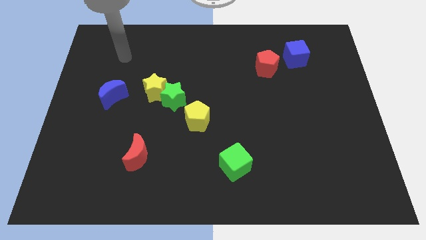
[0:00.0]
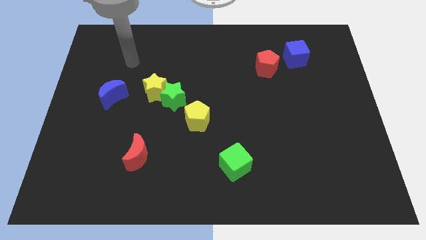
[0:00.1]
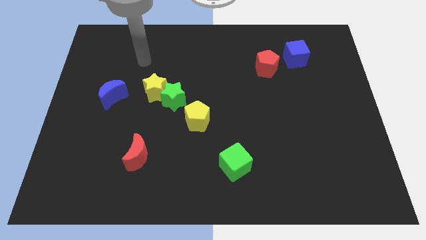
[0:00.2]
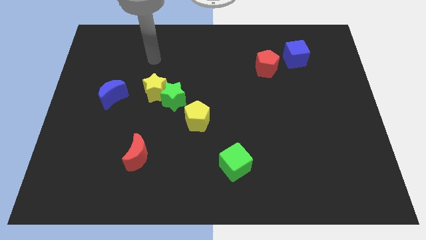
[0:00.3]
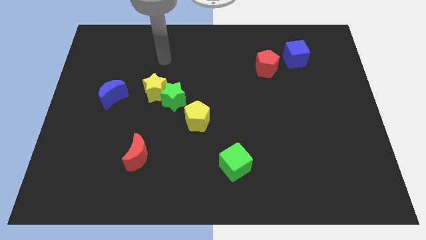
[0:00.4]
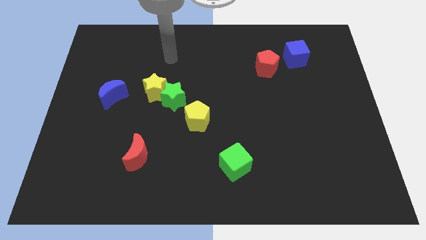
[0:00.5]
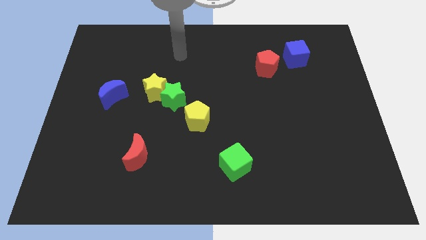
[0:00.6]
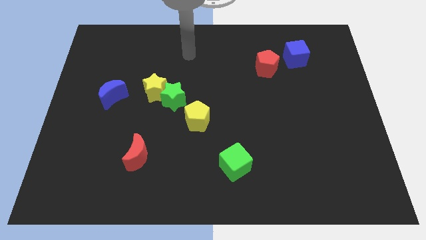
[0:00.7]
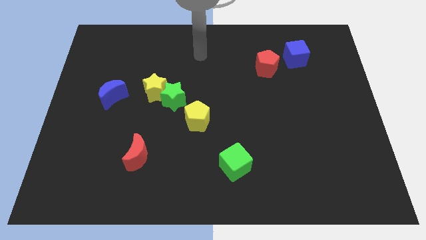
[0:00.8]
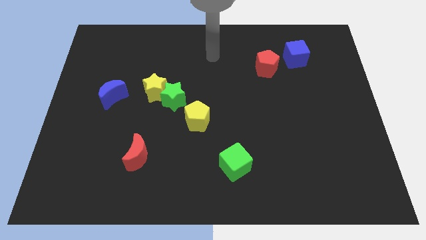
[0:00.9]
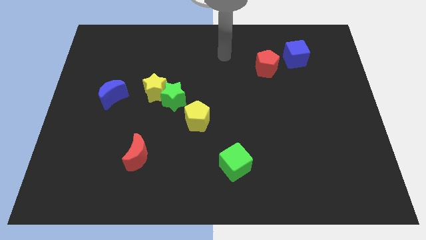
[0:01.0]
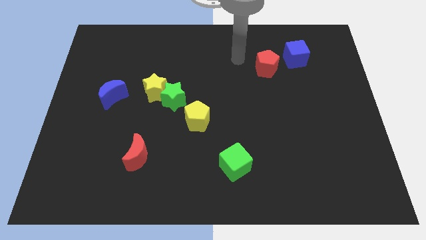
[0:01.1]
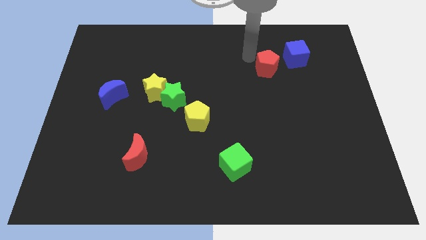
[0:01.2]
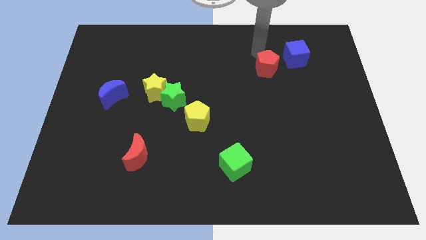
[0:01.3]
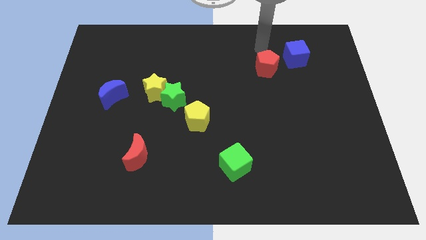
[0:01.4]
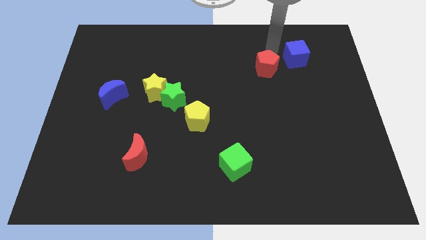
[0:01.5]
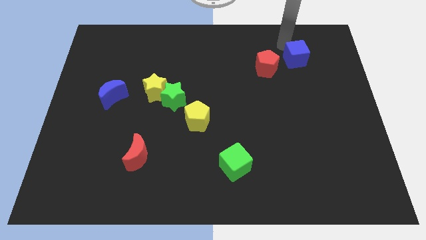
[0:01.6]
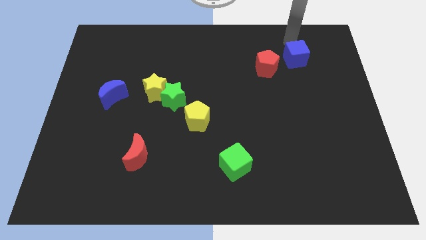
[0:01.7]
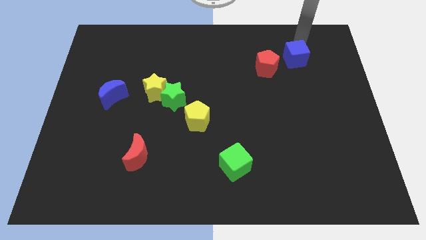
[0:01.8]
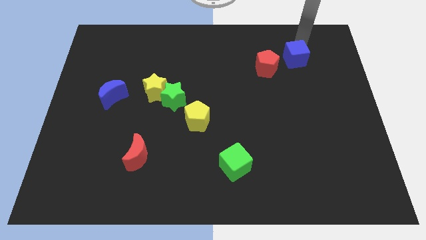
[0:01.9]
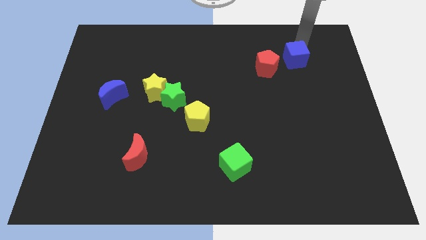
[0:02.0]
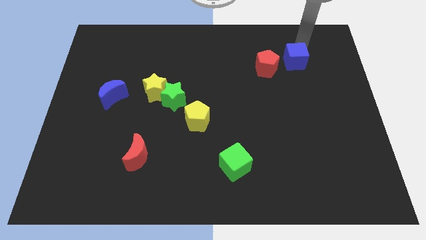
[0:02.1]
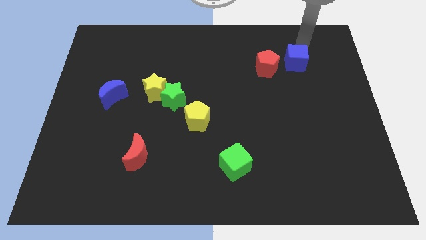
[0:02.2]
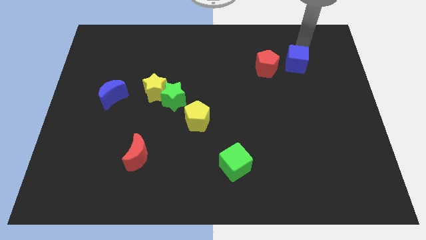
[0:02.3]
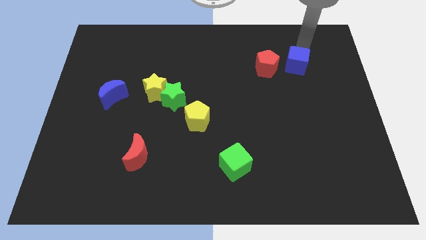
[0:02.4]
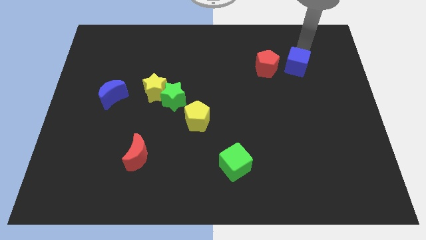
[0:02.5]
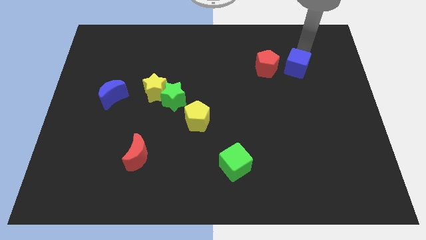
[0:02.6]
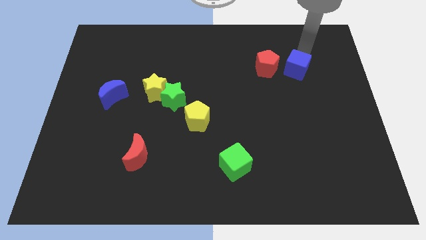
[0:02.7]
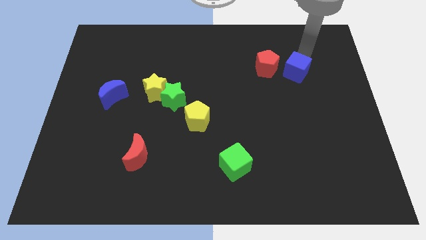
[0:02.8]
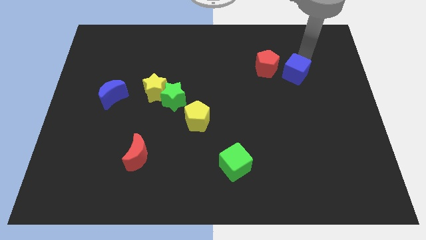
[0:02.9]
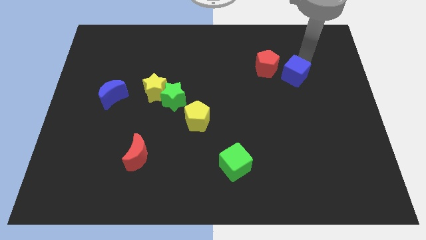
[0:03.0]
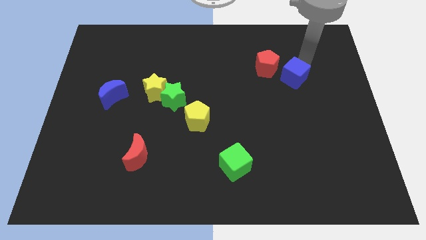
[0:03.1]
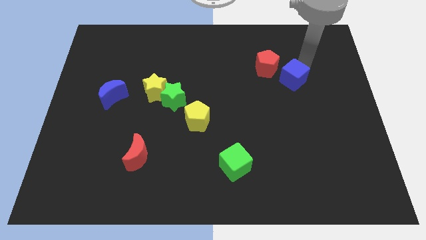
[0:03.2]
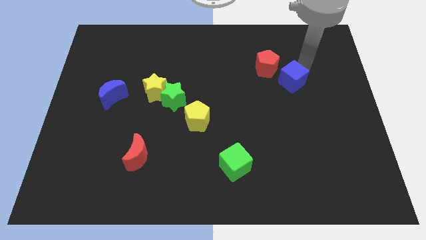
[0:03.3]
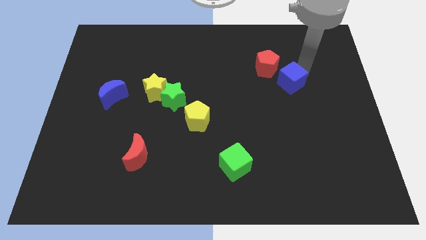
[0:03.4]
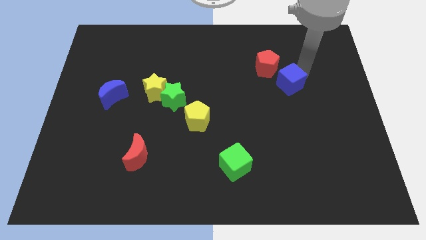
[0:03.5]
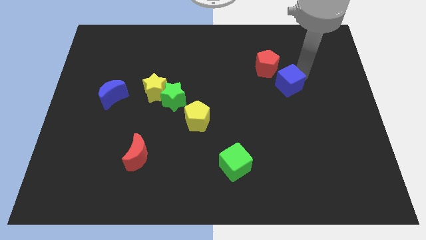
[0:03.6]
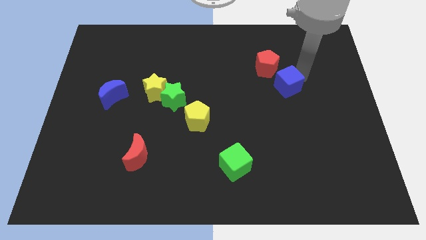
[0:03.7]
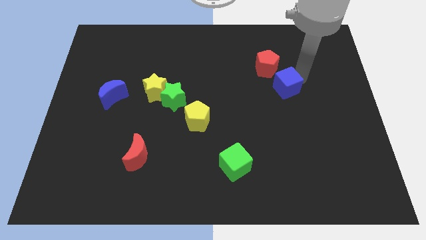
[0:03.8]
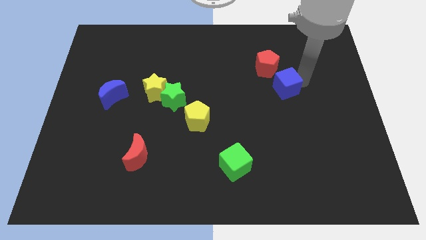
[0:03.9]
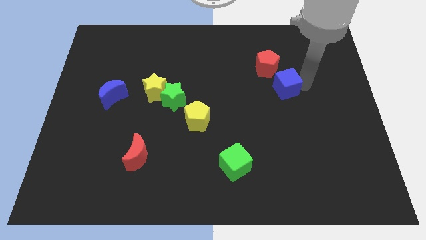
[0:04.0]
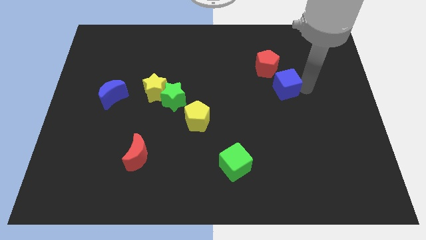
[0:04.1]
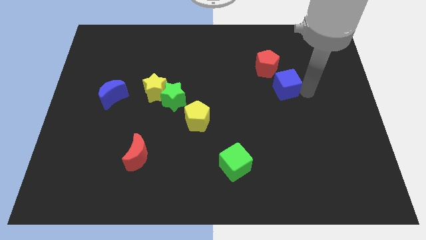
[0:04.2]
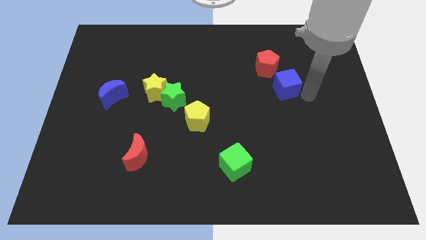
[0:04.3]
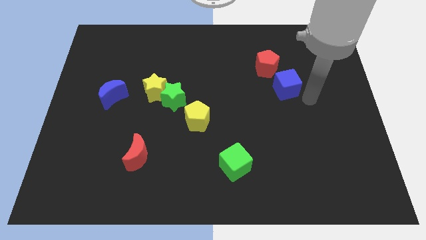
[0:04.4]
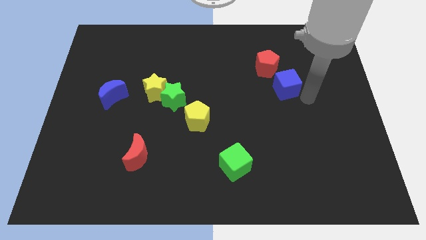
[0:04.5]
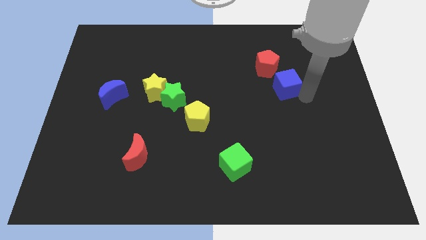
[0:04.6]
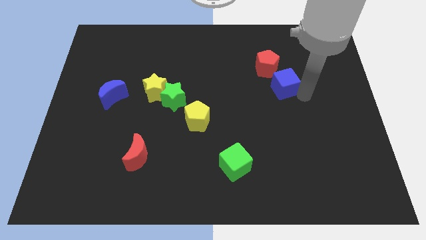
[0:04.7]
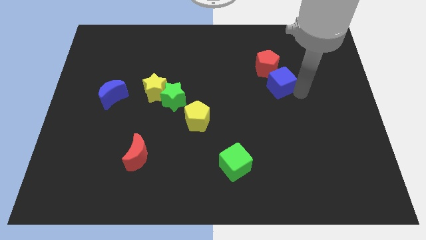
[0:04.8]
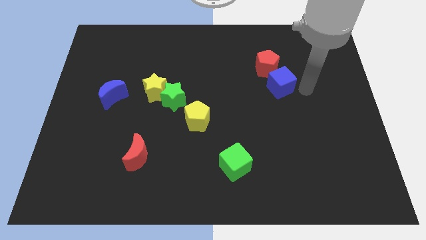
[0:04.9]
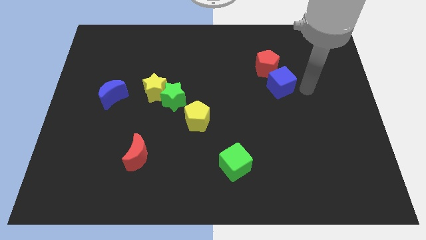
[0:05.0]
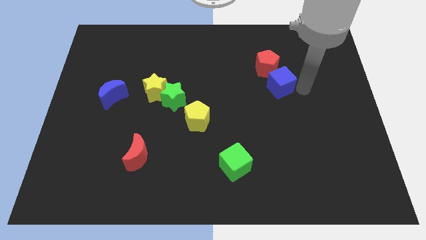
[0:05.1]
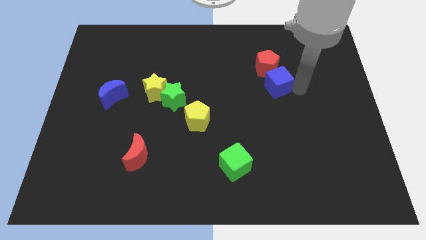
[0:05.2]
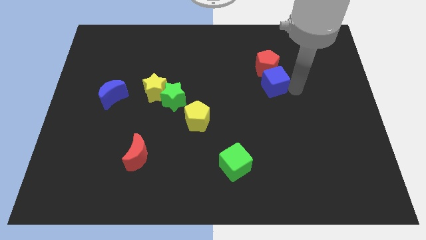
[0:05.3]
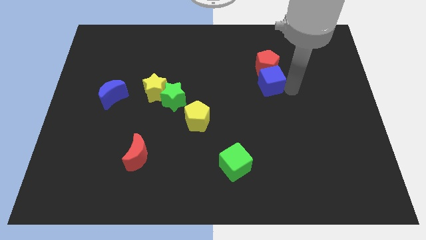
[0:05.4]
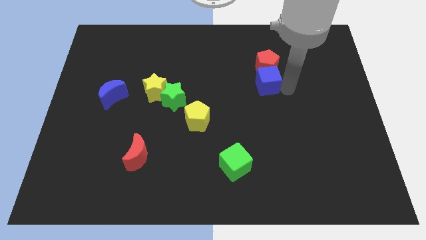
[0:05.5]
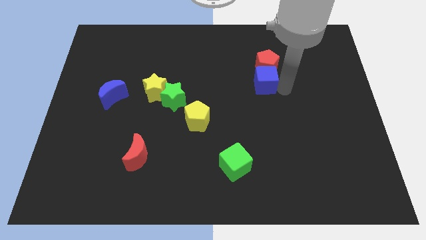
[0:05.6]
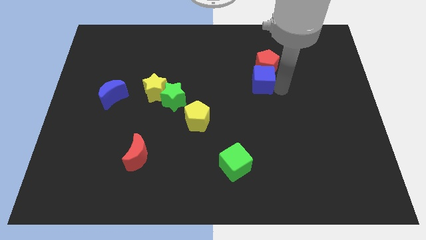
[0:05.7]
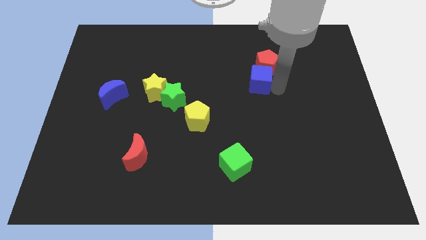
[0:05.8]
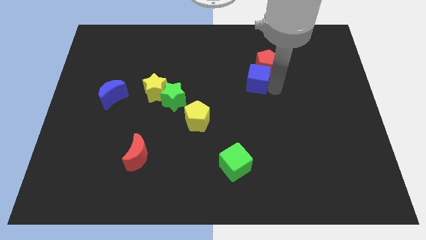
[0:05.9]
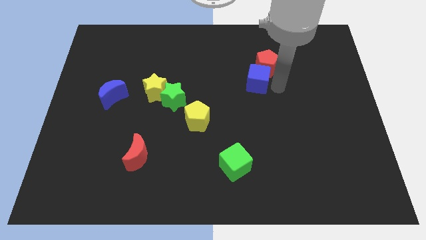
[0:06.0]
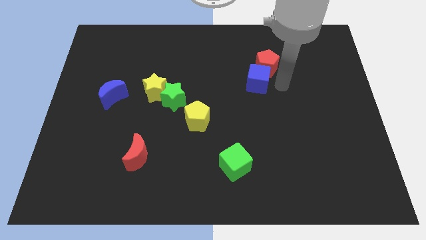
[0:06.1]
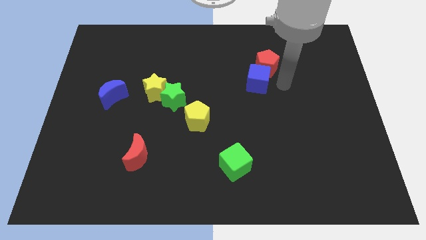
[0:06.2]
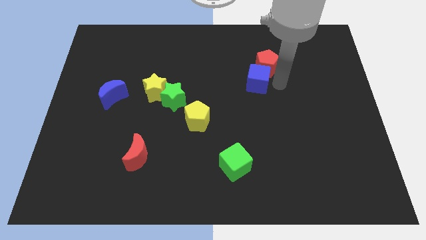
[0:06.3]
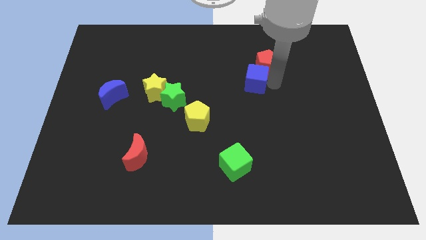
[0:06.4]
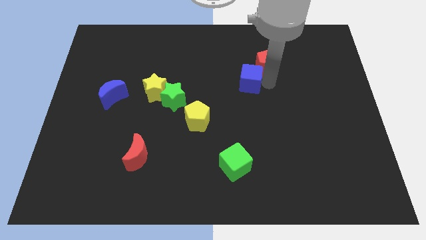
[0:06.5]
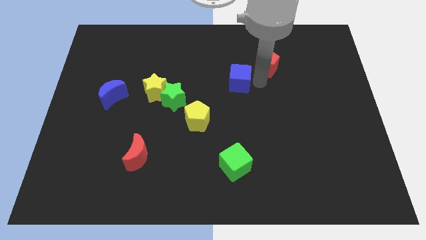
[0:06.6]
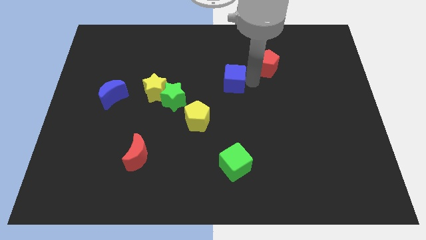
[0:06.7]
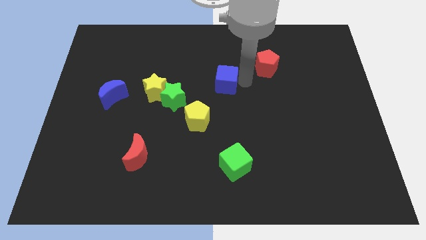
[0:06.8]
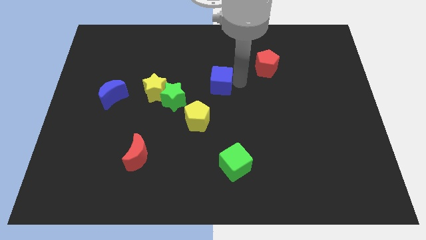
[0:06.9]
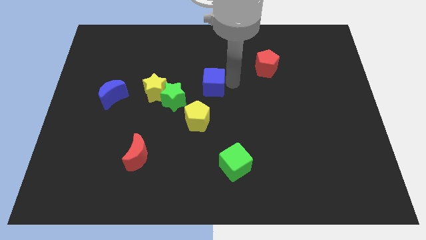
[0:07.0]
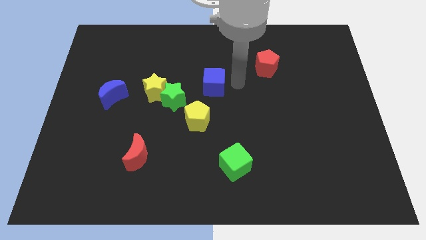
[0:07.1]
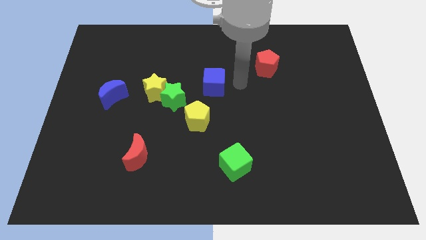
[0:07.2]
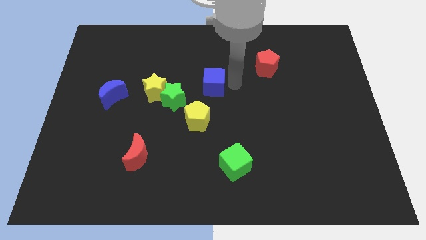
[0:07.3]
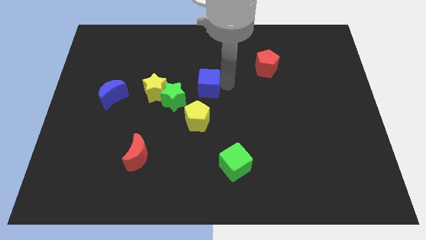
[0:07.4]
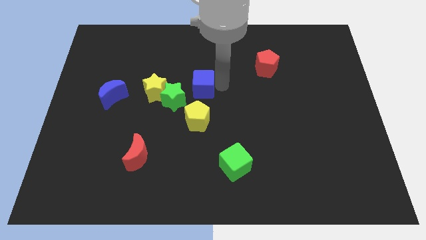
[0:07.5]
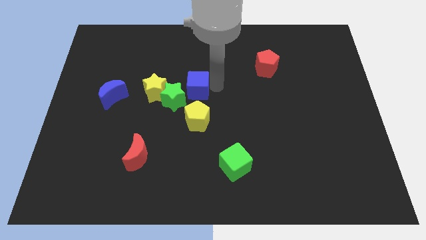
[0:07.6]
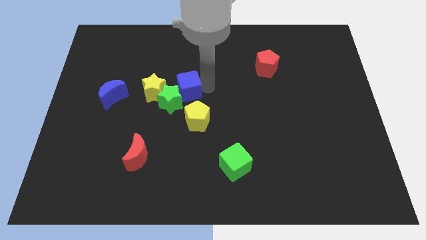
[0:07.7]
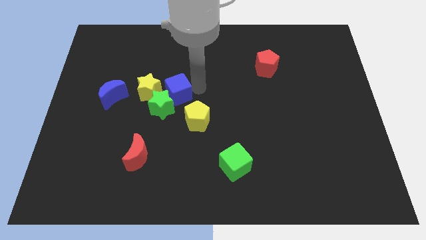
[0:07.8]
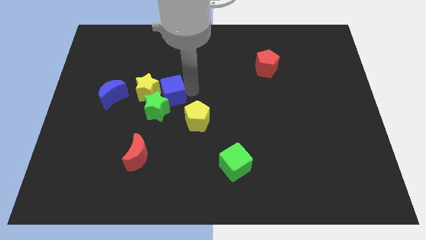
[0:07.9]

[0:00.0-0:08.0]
move the blue cube to the yellow star
